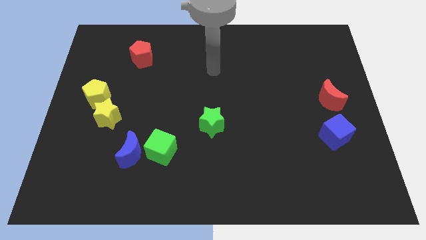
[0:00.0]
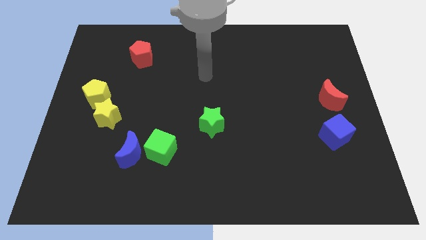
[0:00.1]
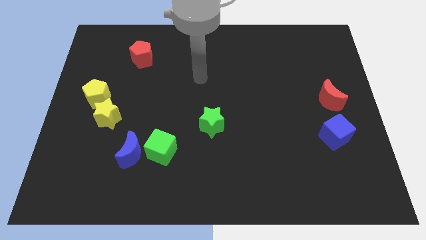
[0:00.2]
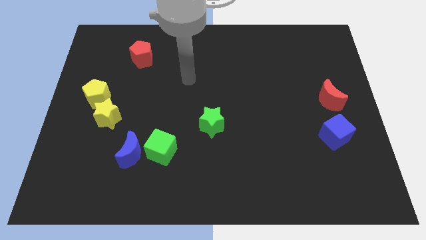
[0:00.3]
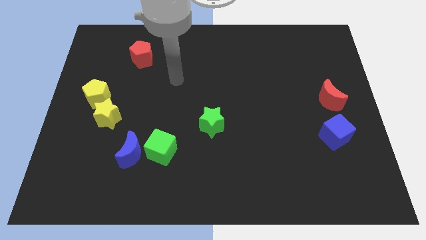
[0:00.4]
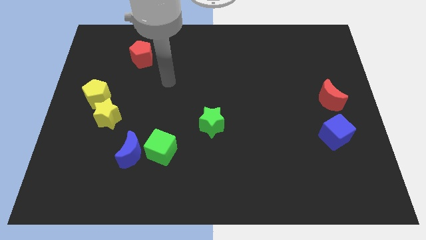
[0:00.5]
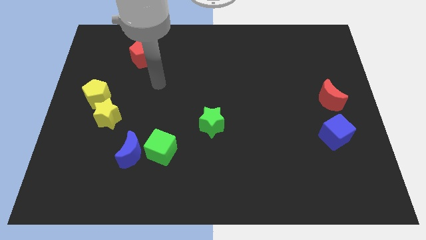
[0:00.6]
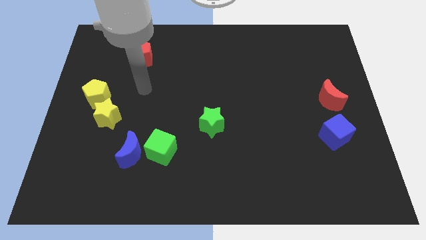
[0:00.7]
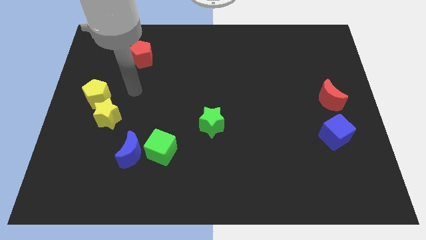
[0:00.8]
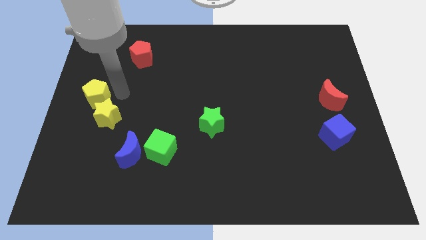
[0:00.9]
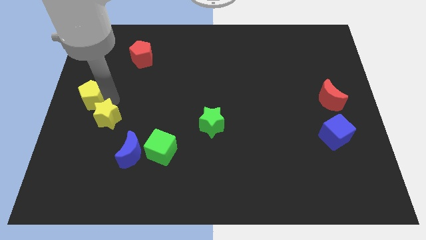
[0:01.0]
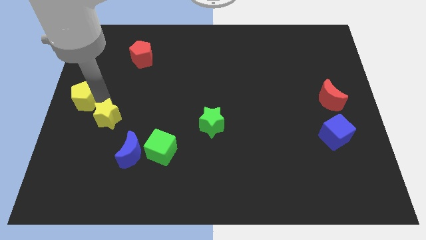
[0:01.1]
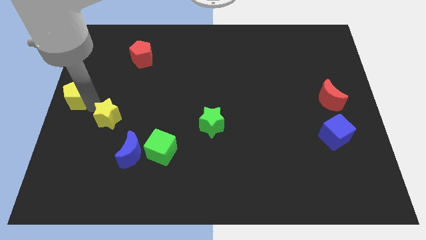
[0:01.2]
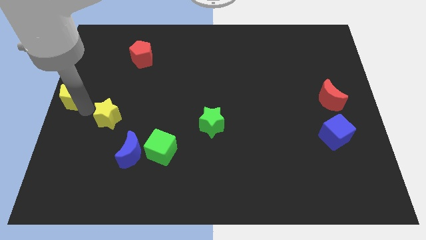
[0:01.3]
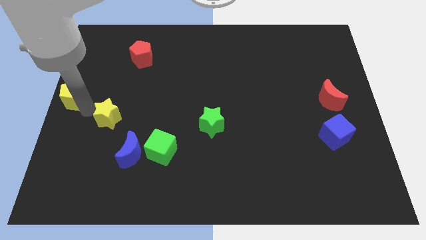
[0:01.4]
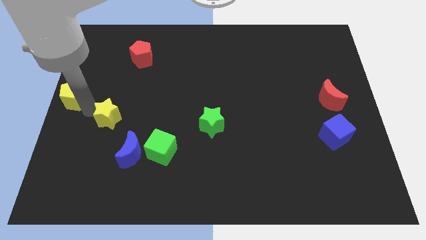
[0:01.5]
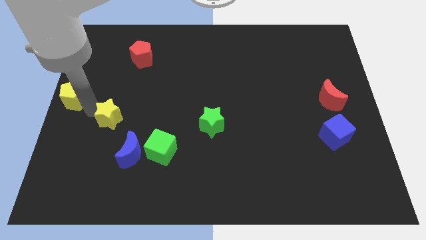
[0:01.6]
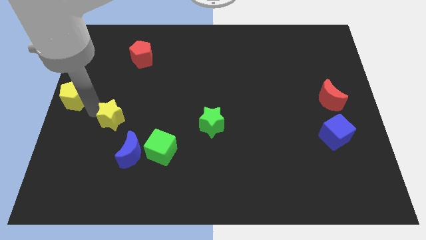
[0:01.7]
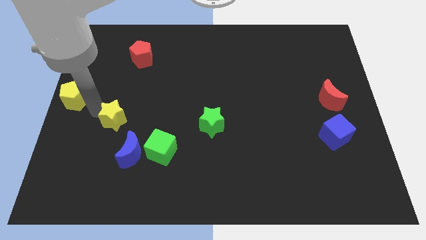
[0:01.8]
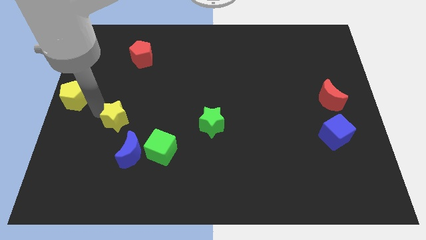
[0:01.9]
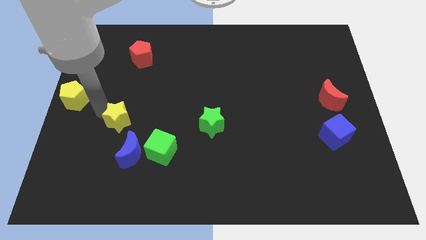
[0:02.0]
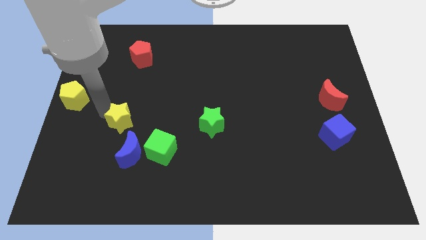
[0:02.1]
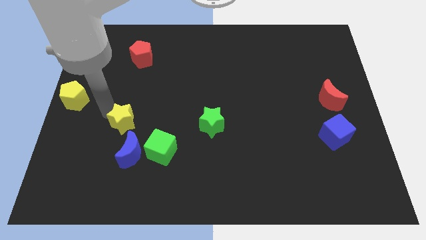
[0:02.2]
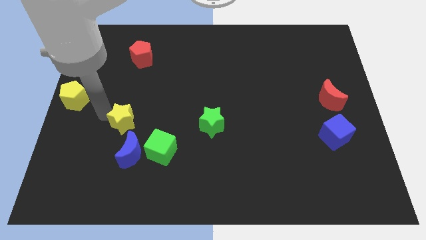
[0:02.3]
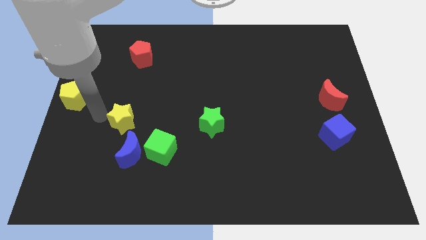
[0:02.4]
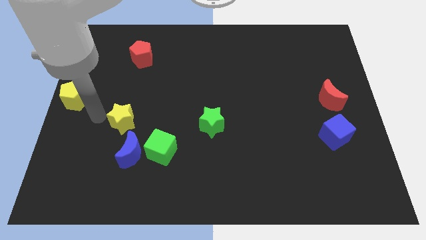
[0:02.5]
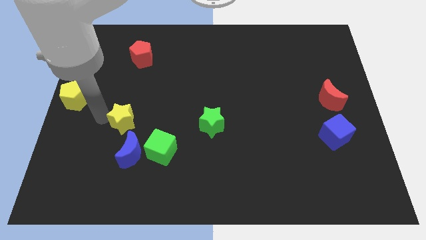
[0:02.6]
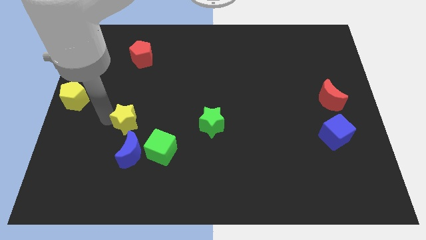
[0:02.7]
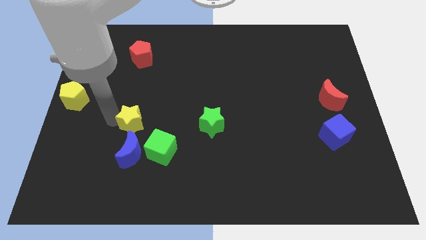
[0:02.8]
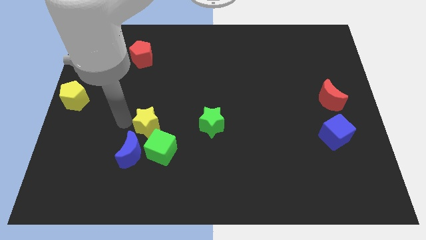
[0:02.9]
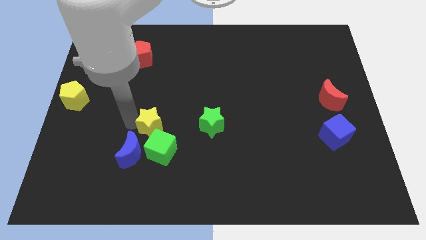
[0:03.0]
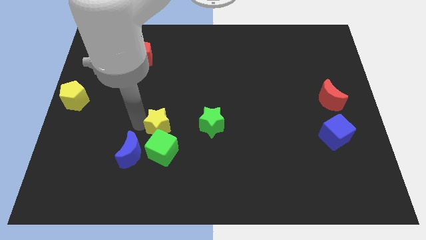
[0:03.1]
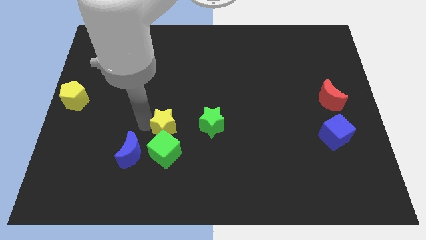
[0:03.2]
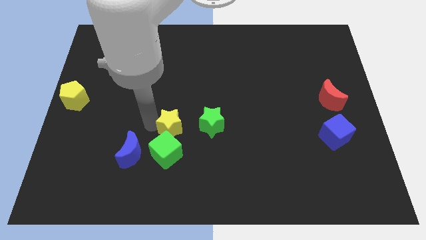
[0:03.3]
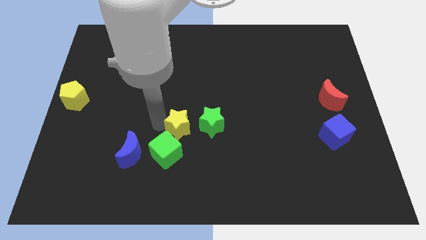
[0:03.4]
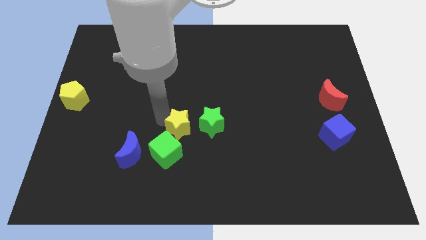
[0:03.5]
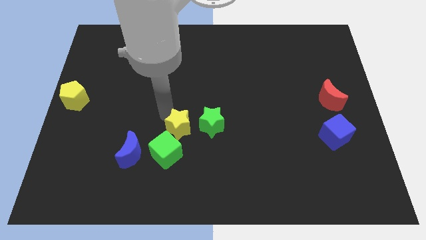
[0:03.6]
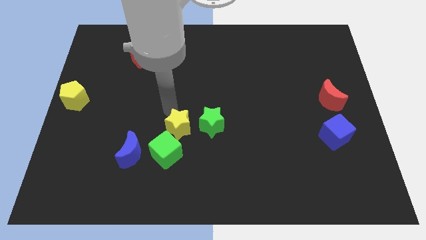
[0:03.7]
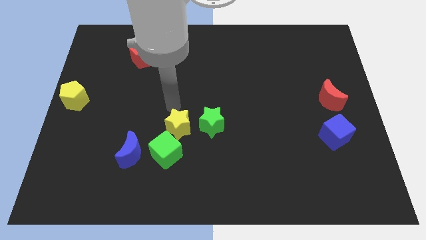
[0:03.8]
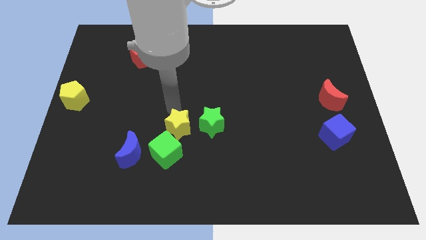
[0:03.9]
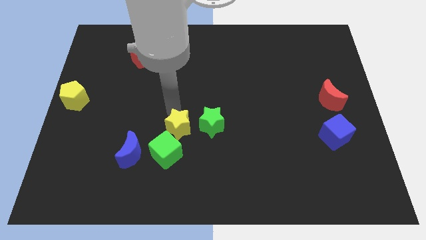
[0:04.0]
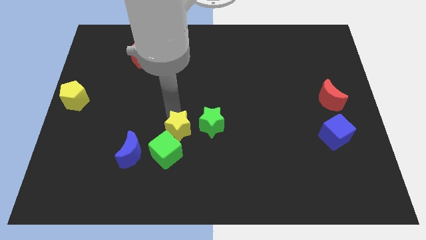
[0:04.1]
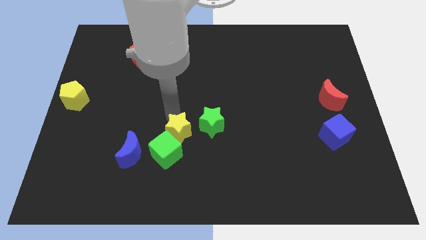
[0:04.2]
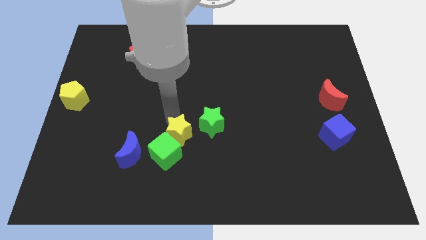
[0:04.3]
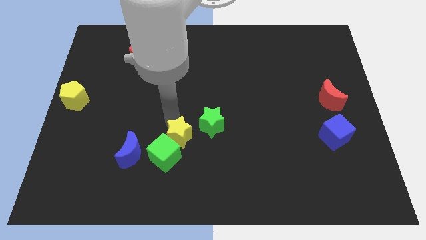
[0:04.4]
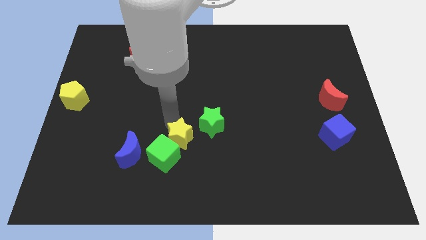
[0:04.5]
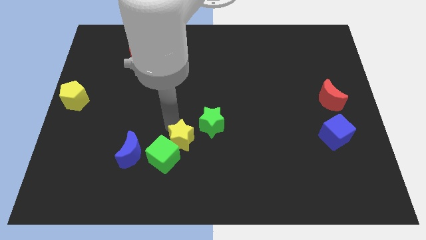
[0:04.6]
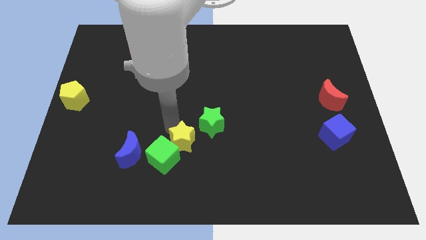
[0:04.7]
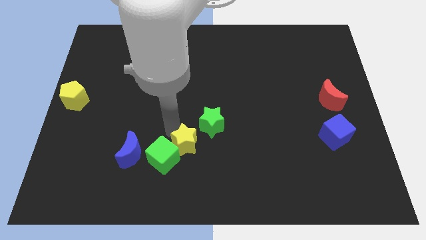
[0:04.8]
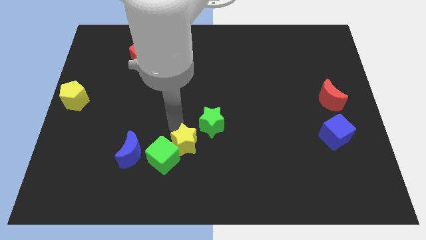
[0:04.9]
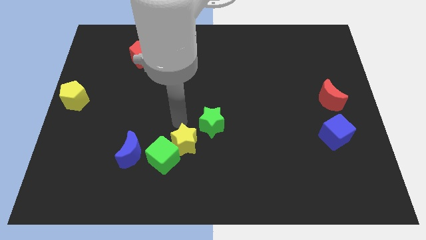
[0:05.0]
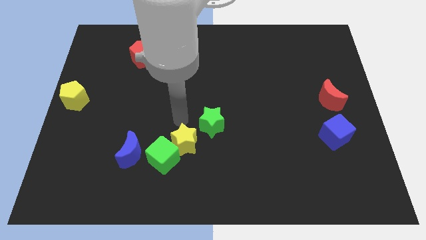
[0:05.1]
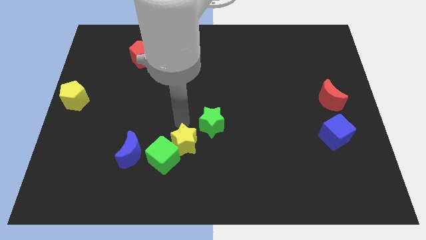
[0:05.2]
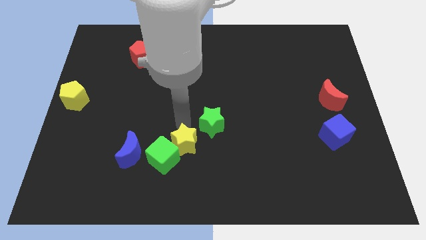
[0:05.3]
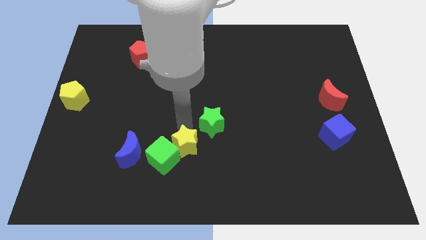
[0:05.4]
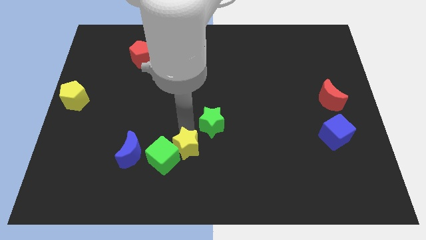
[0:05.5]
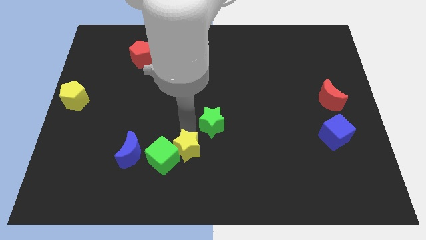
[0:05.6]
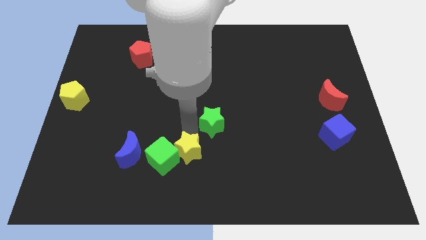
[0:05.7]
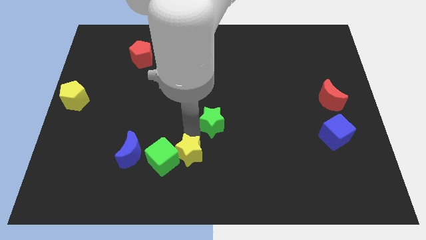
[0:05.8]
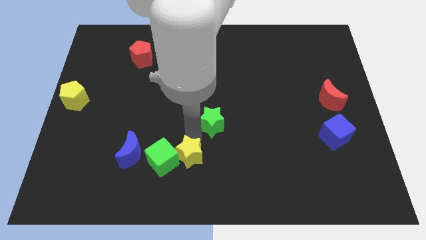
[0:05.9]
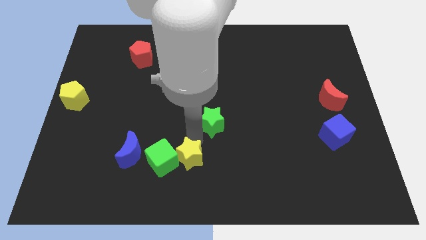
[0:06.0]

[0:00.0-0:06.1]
put the yellow star to the bottom side
